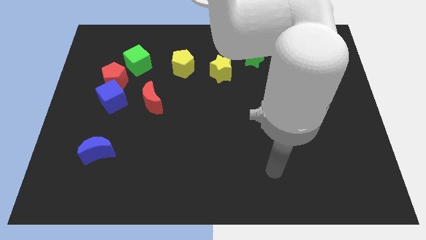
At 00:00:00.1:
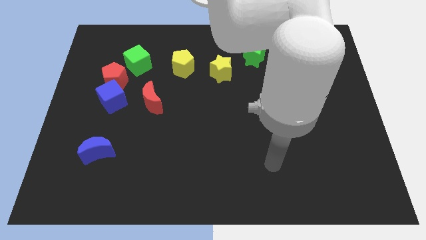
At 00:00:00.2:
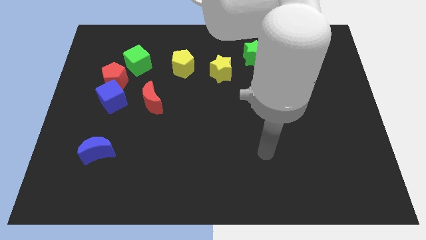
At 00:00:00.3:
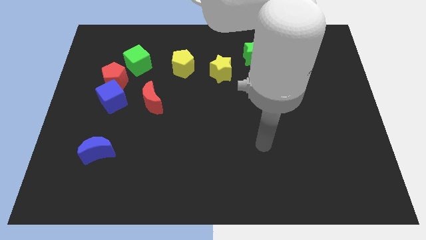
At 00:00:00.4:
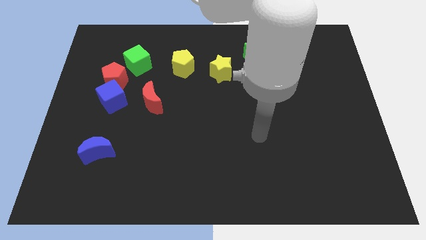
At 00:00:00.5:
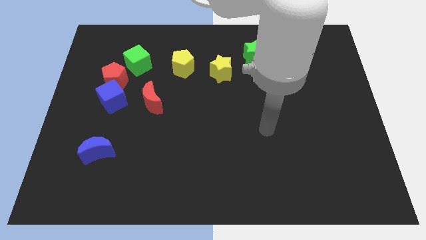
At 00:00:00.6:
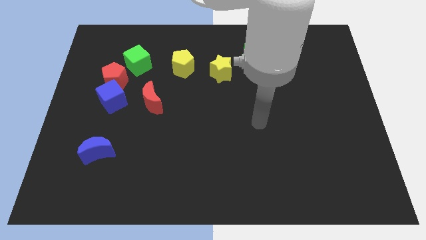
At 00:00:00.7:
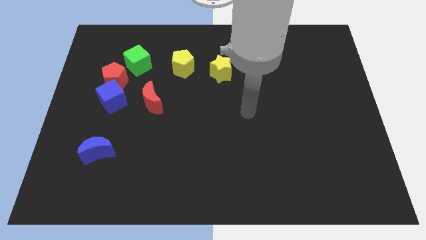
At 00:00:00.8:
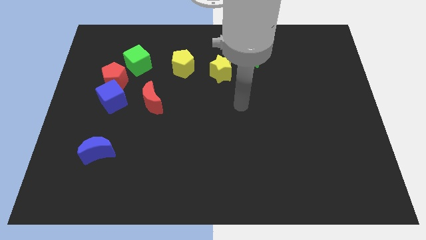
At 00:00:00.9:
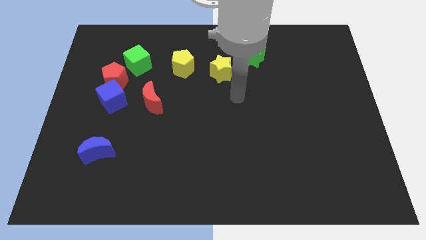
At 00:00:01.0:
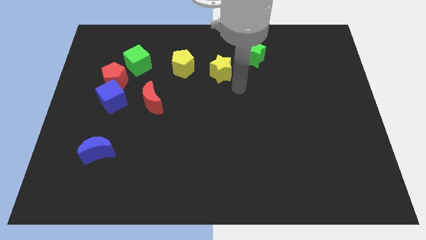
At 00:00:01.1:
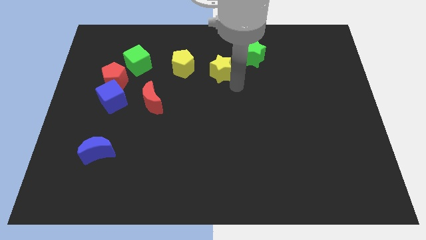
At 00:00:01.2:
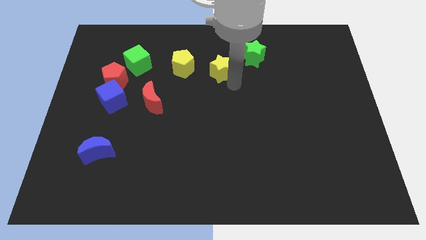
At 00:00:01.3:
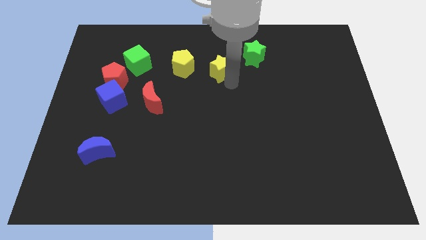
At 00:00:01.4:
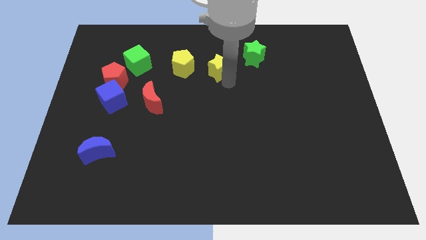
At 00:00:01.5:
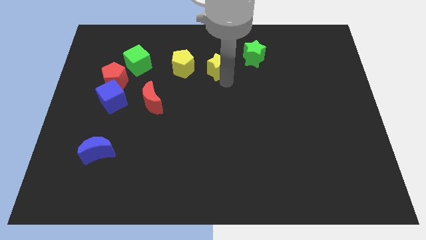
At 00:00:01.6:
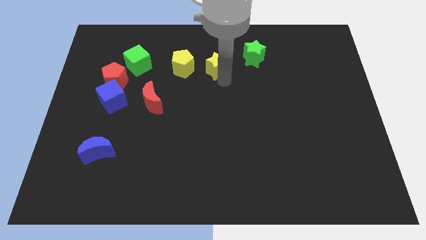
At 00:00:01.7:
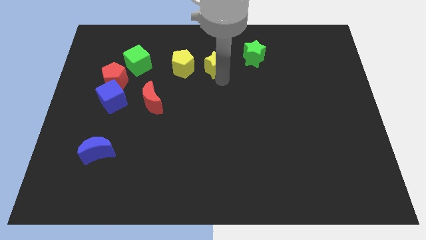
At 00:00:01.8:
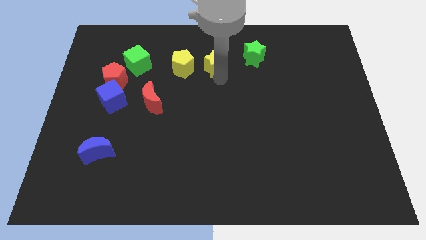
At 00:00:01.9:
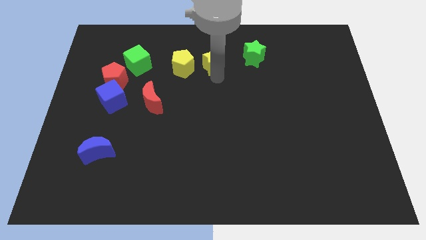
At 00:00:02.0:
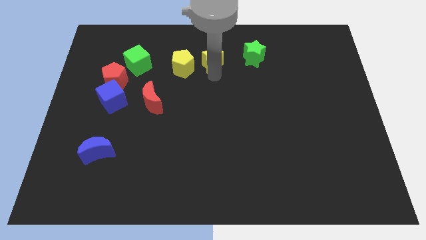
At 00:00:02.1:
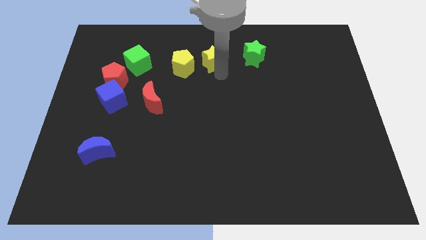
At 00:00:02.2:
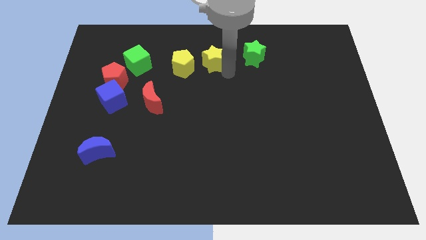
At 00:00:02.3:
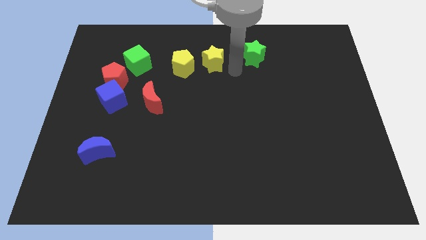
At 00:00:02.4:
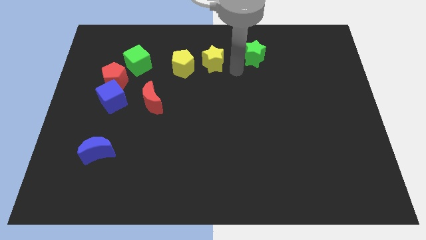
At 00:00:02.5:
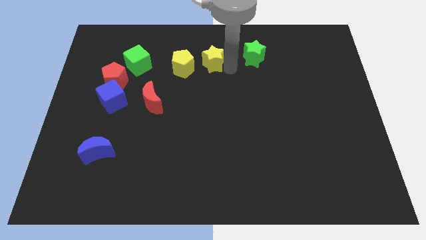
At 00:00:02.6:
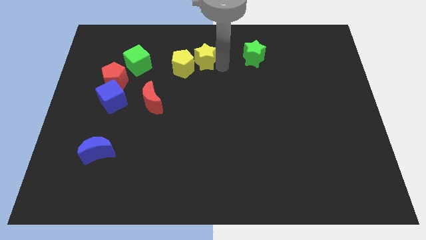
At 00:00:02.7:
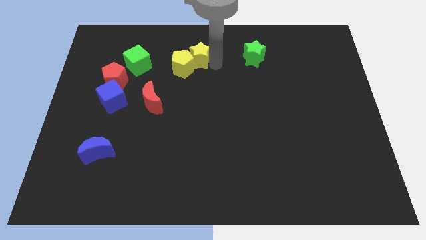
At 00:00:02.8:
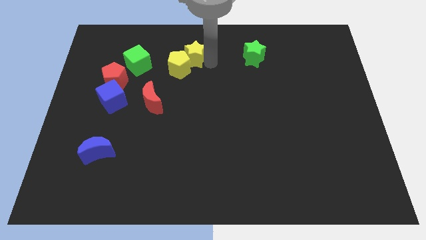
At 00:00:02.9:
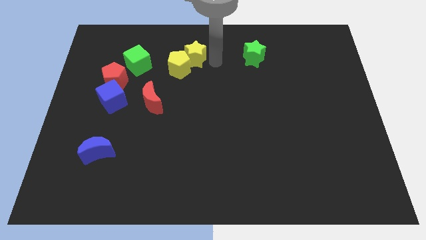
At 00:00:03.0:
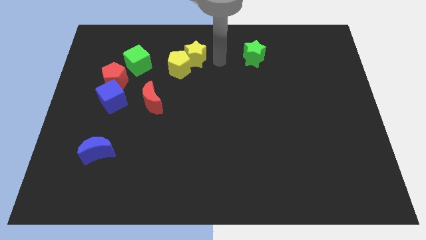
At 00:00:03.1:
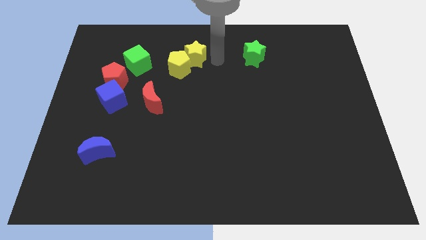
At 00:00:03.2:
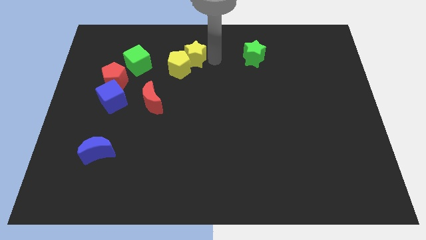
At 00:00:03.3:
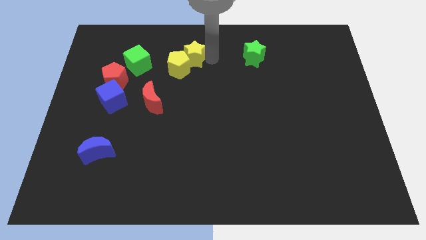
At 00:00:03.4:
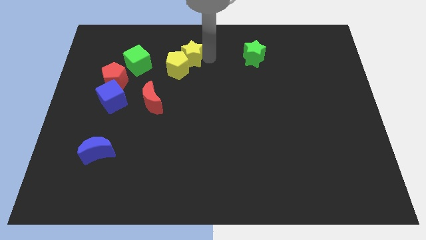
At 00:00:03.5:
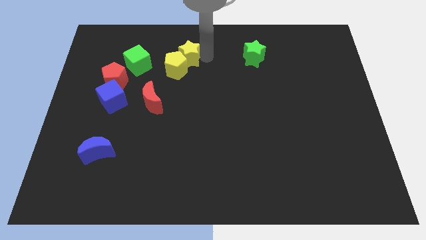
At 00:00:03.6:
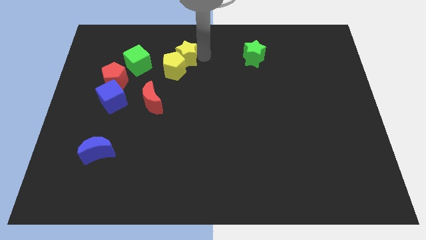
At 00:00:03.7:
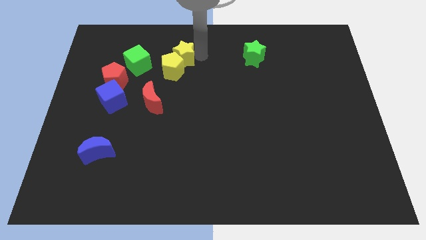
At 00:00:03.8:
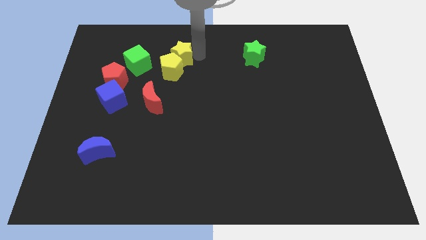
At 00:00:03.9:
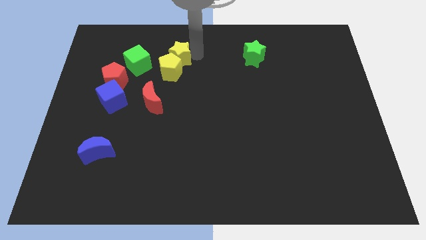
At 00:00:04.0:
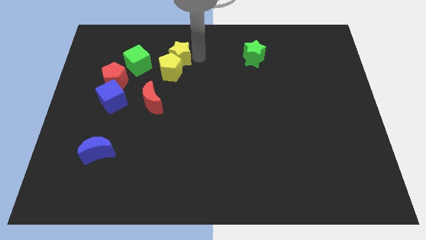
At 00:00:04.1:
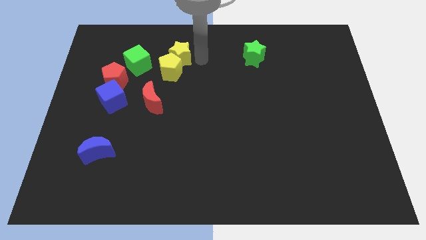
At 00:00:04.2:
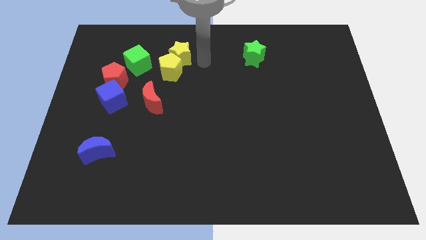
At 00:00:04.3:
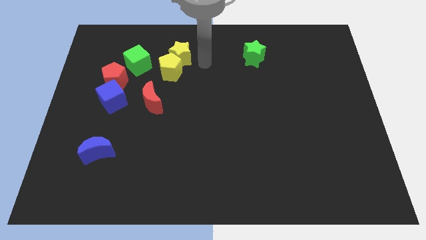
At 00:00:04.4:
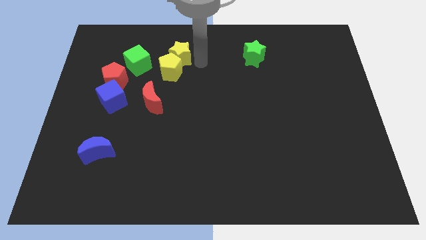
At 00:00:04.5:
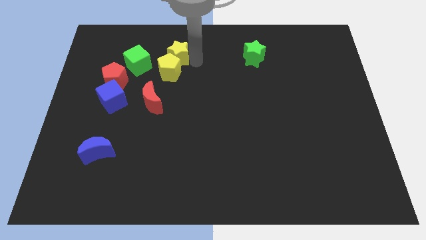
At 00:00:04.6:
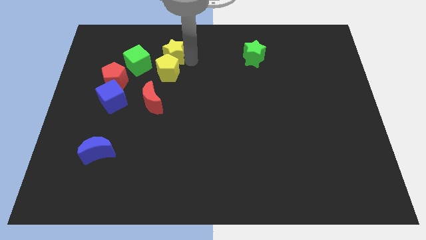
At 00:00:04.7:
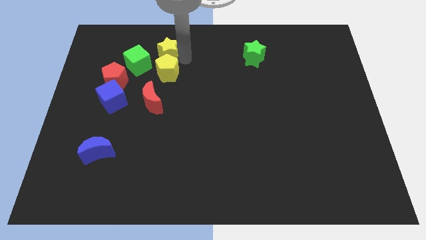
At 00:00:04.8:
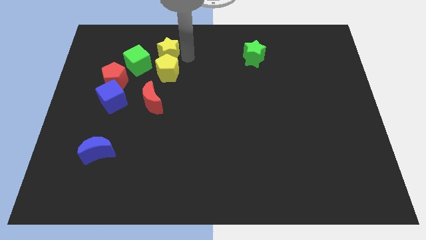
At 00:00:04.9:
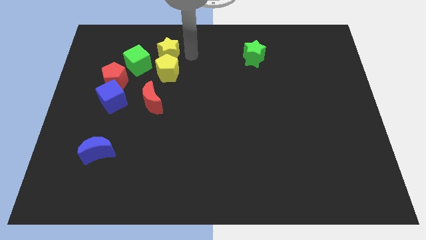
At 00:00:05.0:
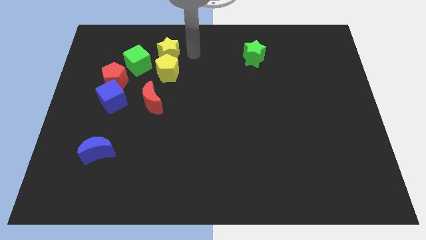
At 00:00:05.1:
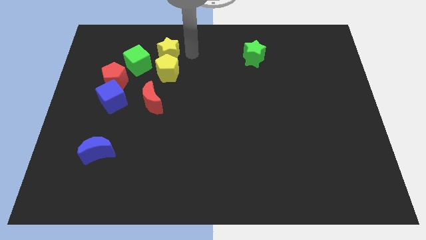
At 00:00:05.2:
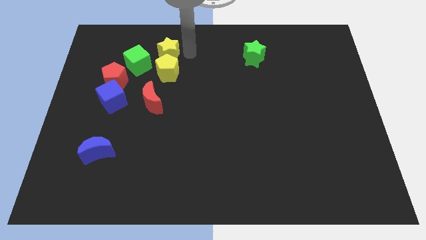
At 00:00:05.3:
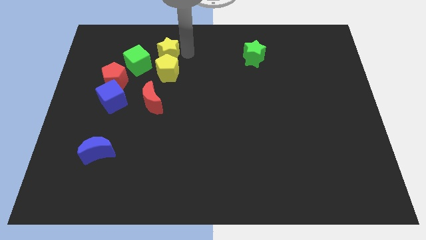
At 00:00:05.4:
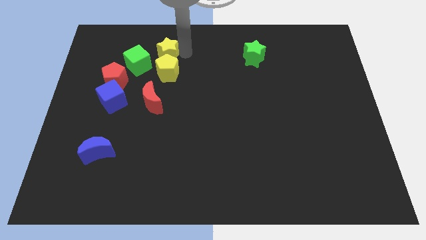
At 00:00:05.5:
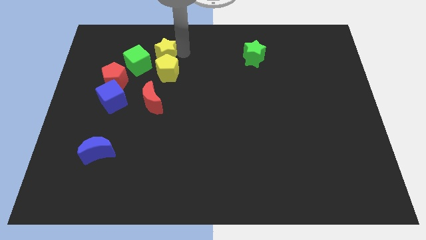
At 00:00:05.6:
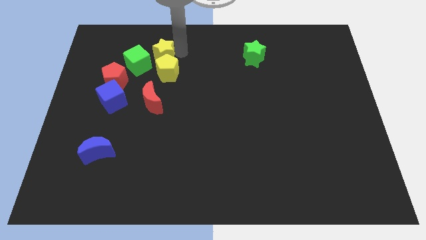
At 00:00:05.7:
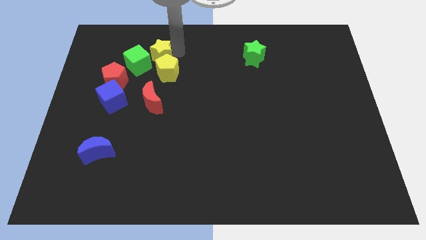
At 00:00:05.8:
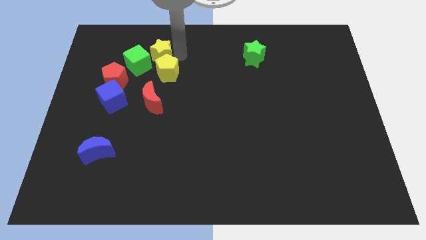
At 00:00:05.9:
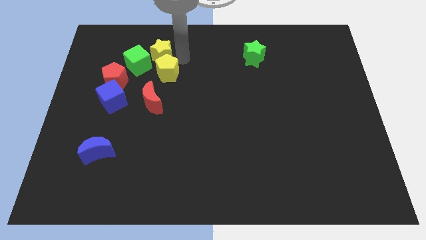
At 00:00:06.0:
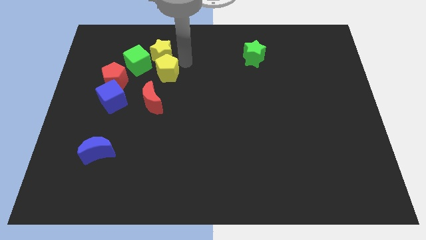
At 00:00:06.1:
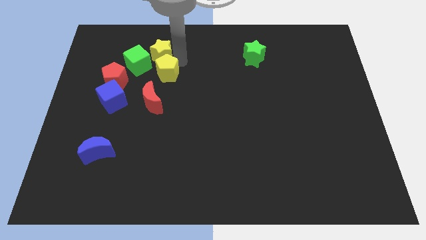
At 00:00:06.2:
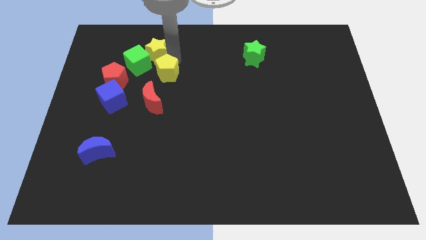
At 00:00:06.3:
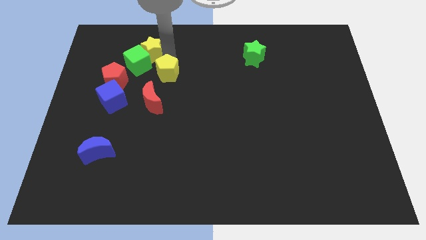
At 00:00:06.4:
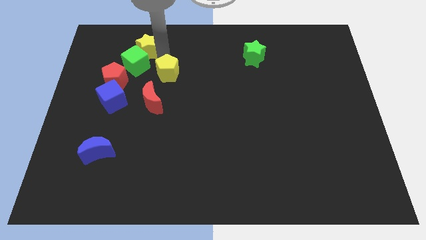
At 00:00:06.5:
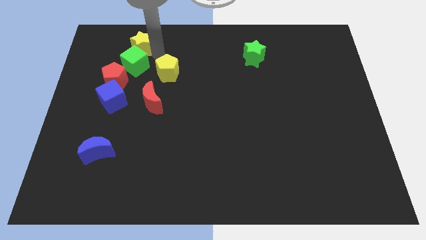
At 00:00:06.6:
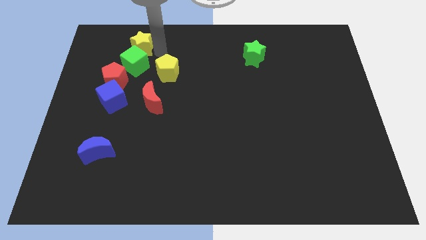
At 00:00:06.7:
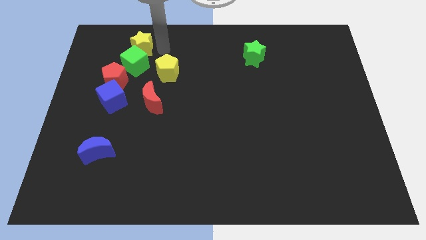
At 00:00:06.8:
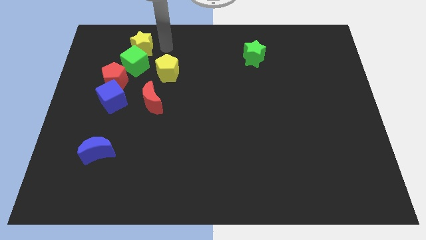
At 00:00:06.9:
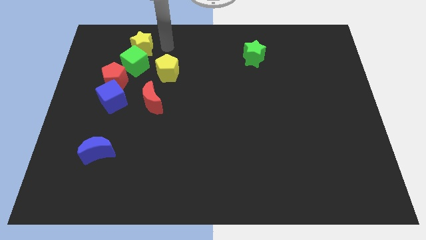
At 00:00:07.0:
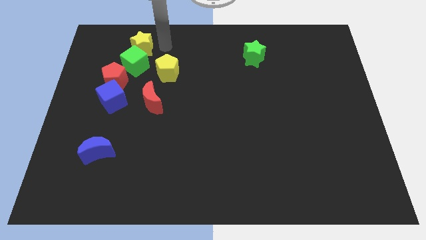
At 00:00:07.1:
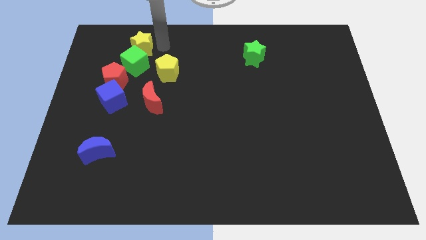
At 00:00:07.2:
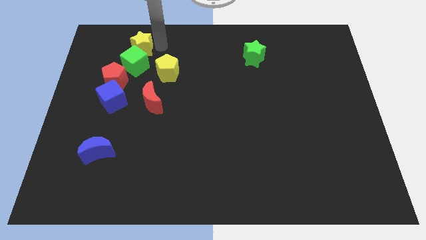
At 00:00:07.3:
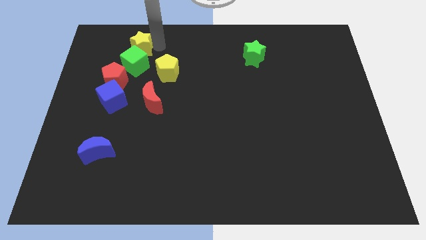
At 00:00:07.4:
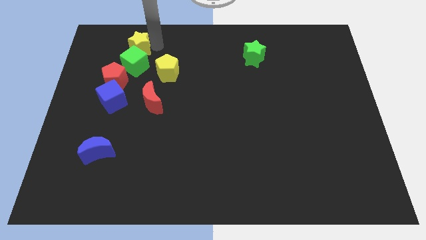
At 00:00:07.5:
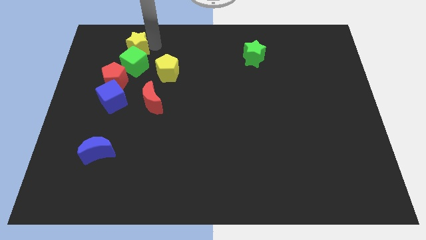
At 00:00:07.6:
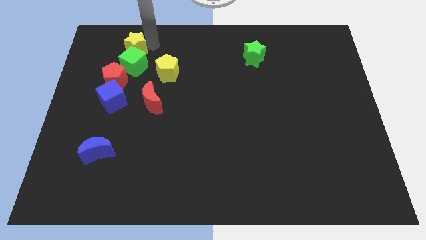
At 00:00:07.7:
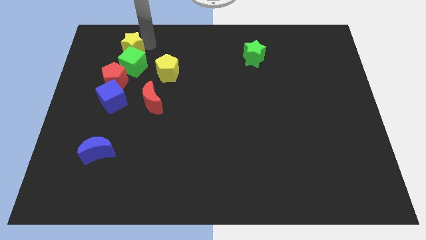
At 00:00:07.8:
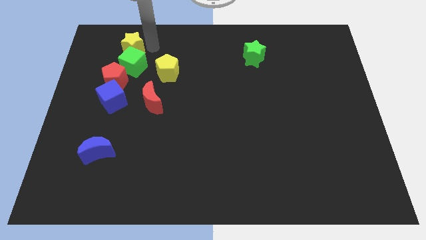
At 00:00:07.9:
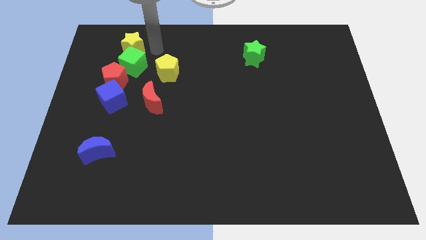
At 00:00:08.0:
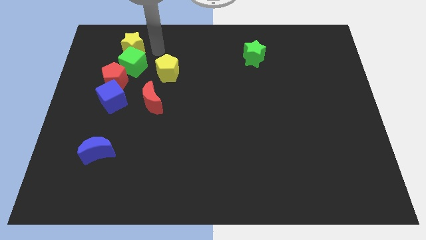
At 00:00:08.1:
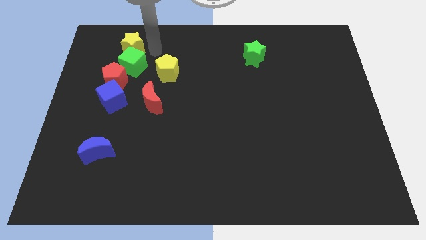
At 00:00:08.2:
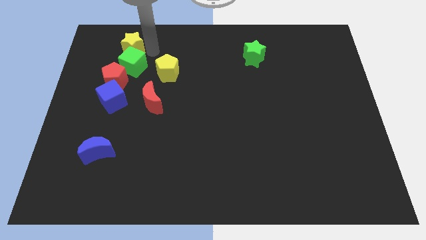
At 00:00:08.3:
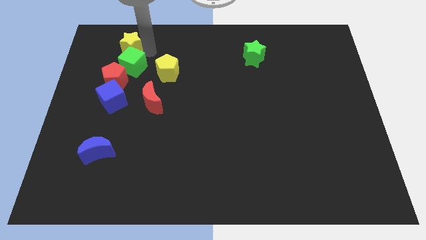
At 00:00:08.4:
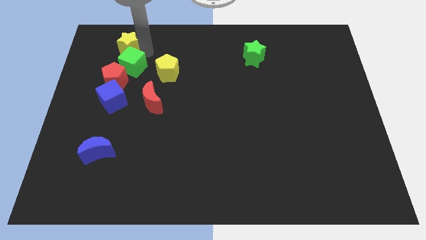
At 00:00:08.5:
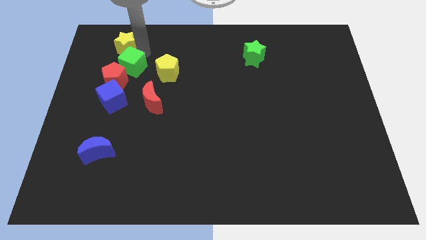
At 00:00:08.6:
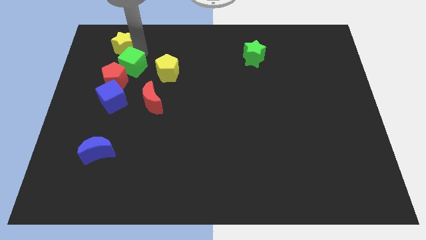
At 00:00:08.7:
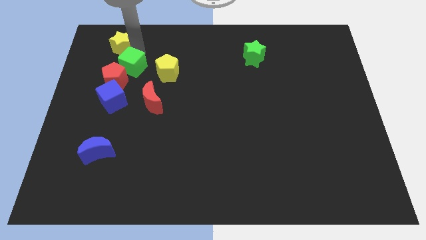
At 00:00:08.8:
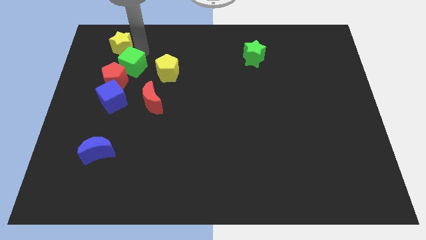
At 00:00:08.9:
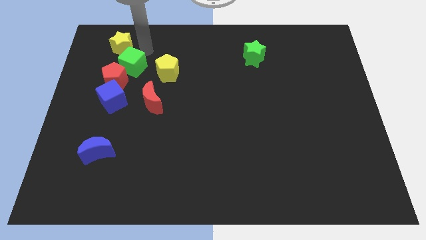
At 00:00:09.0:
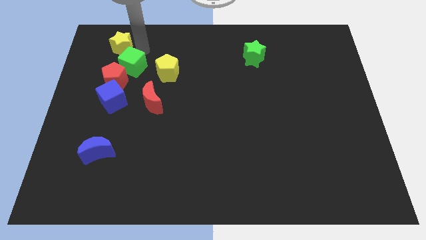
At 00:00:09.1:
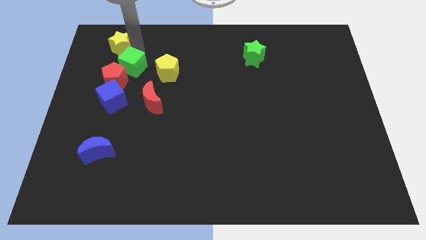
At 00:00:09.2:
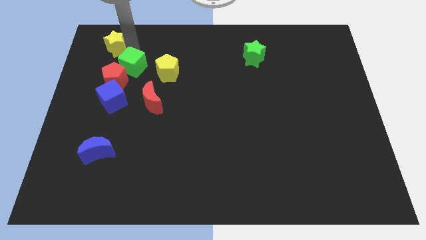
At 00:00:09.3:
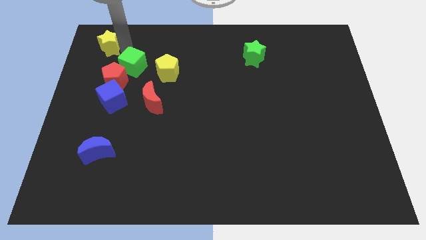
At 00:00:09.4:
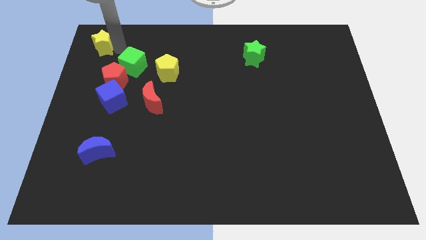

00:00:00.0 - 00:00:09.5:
slide the yellow star to the top left of the board
